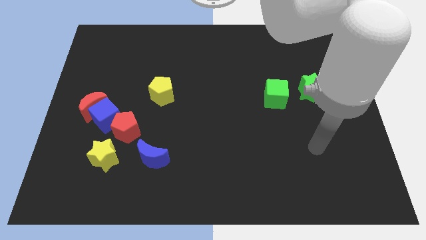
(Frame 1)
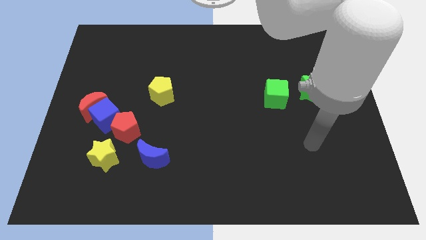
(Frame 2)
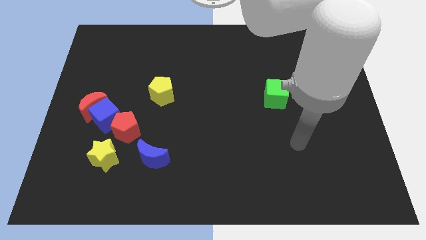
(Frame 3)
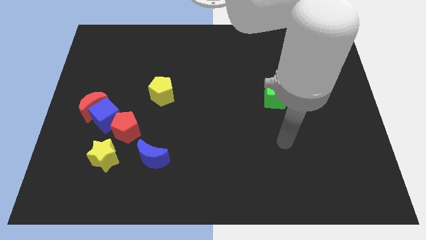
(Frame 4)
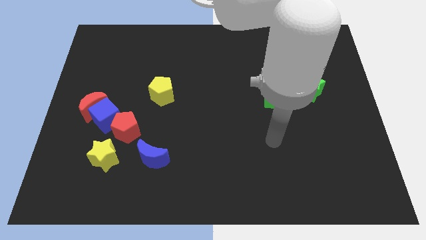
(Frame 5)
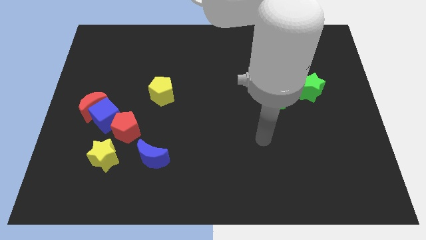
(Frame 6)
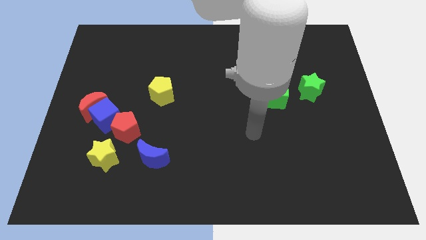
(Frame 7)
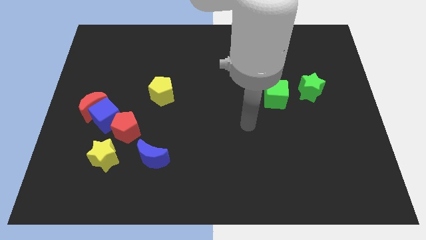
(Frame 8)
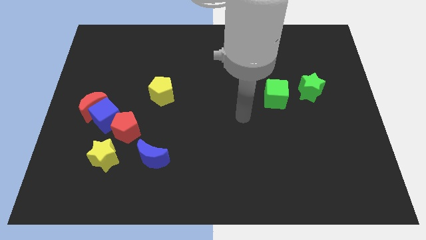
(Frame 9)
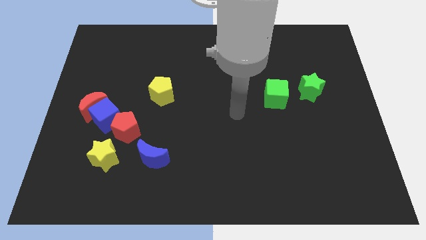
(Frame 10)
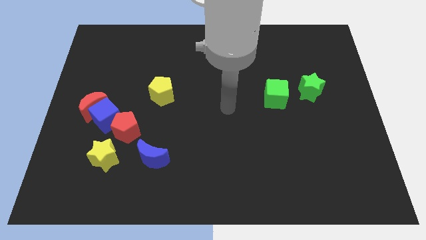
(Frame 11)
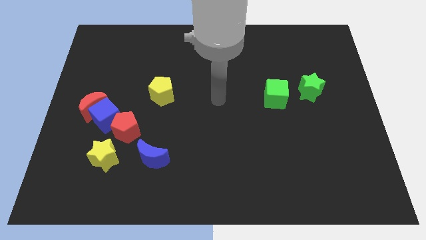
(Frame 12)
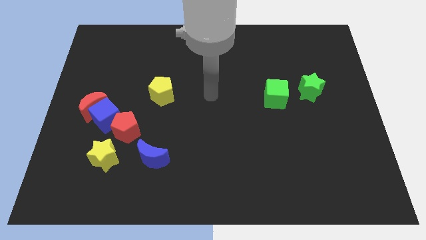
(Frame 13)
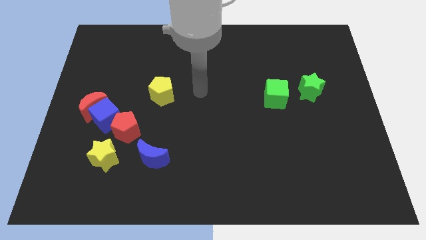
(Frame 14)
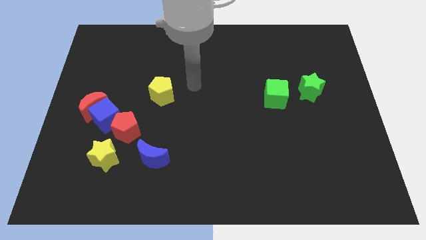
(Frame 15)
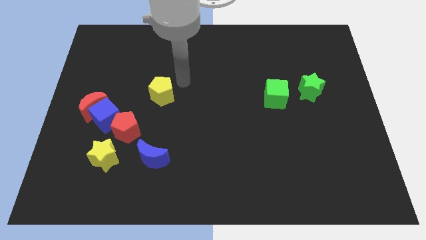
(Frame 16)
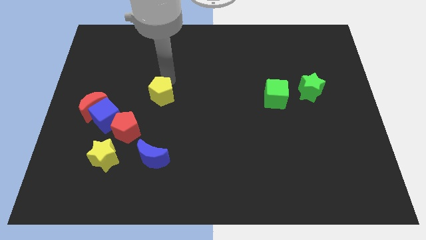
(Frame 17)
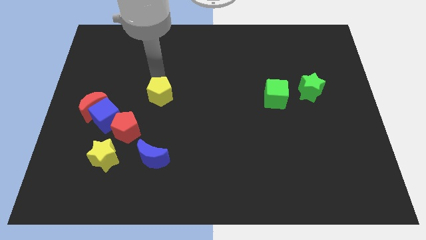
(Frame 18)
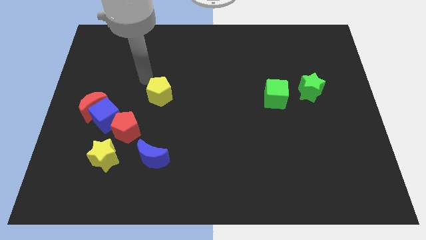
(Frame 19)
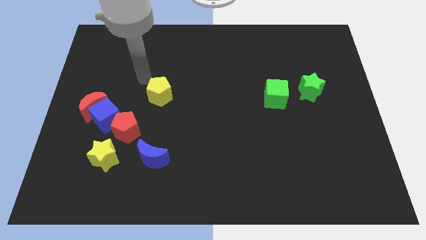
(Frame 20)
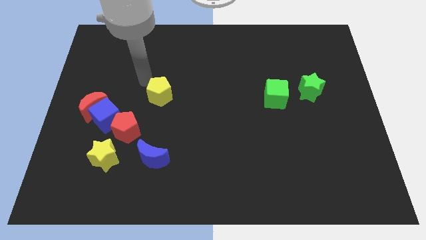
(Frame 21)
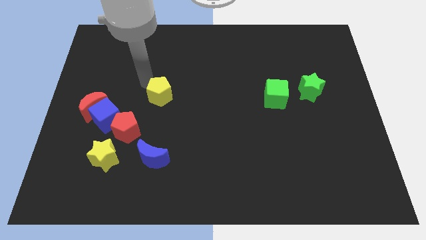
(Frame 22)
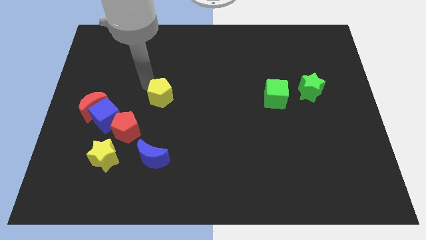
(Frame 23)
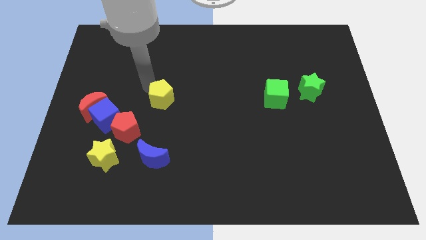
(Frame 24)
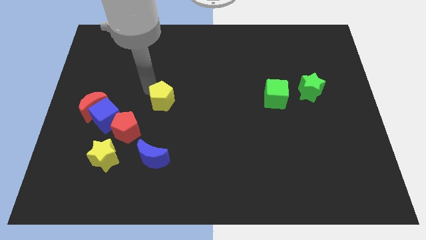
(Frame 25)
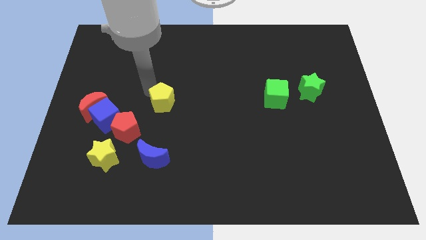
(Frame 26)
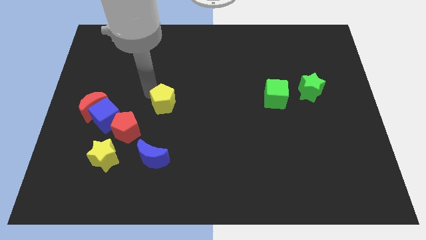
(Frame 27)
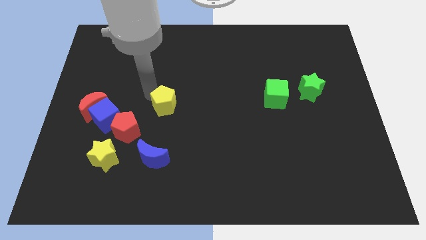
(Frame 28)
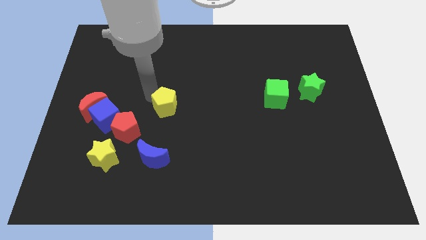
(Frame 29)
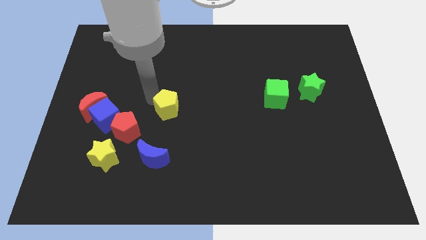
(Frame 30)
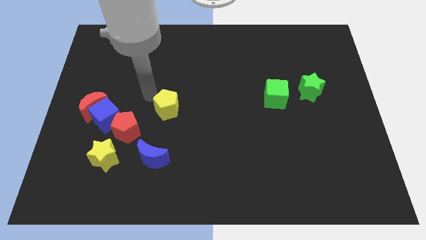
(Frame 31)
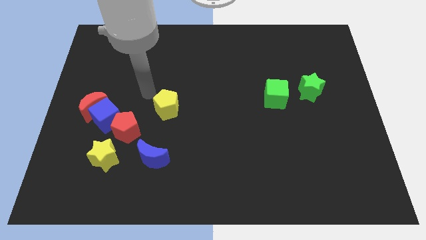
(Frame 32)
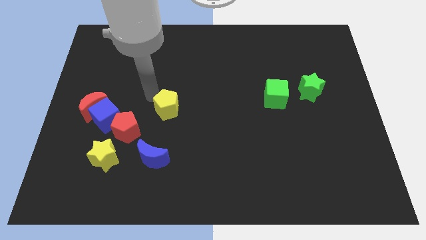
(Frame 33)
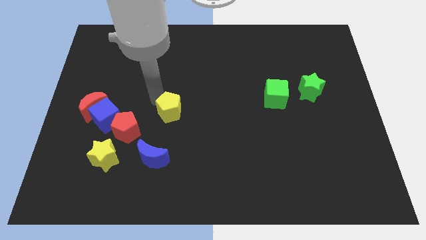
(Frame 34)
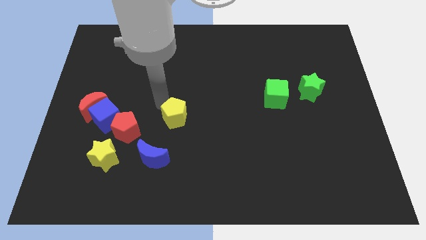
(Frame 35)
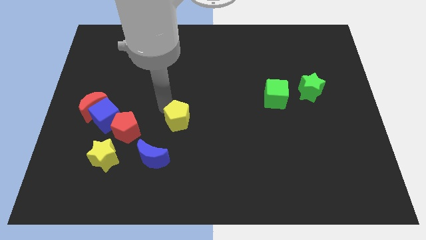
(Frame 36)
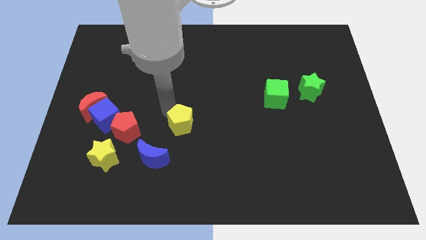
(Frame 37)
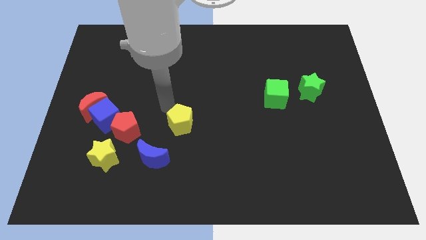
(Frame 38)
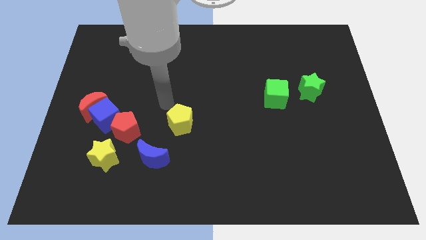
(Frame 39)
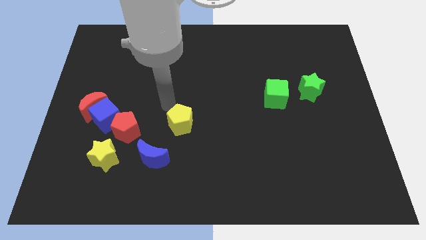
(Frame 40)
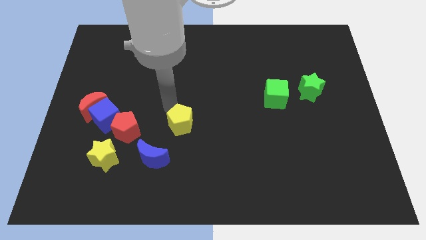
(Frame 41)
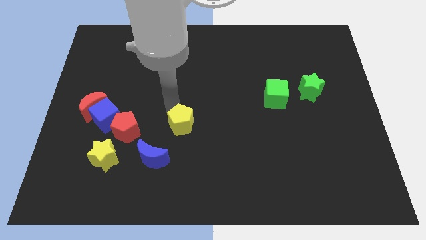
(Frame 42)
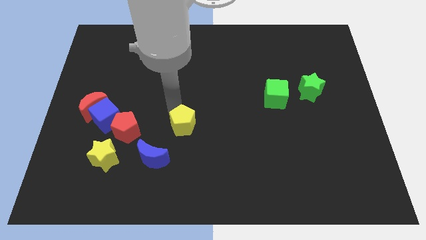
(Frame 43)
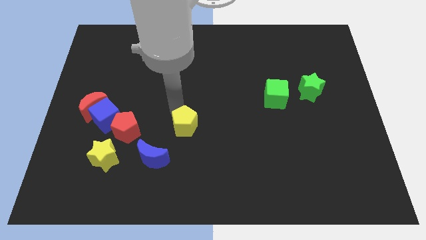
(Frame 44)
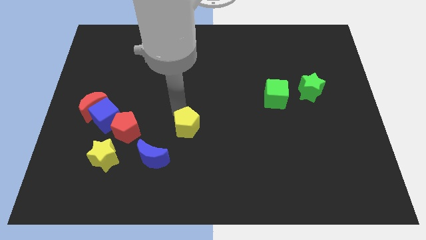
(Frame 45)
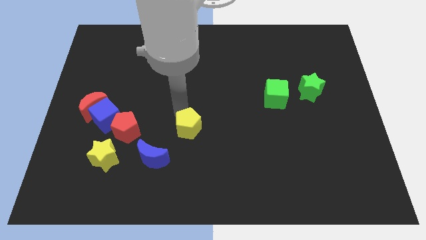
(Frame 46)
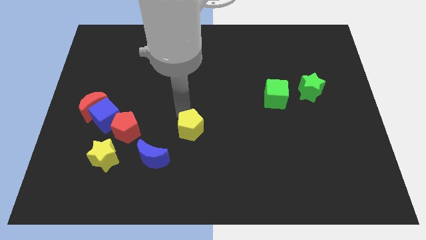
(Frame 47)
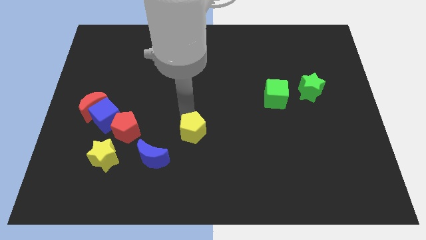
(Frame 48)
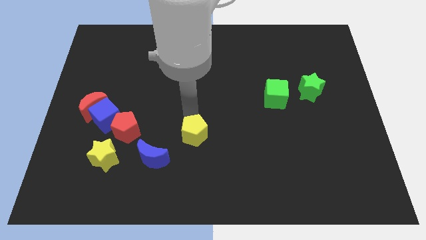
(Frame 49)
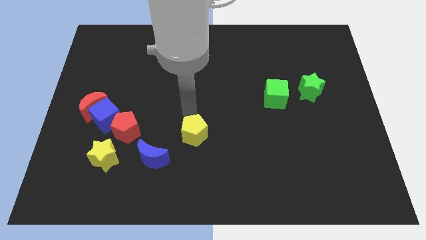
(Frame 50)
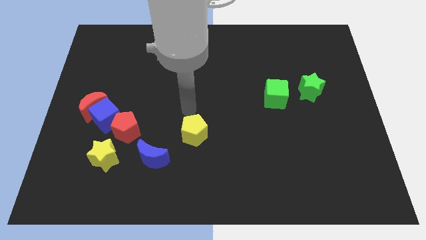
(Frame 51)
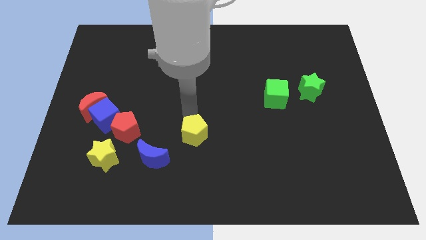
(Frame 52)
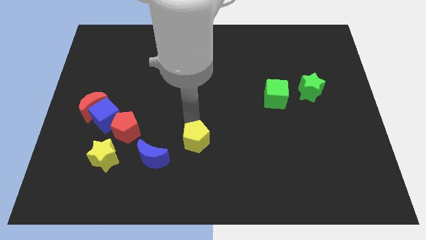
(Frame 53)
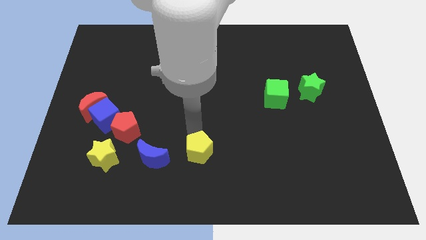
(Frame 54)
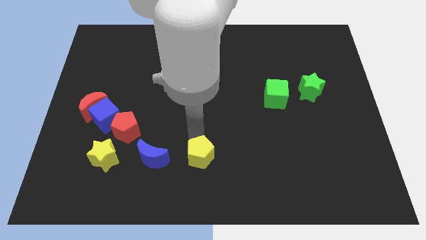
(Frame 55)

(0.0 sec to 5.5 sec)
move the yellow pentagon to the bottom side

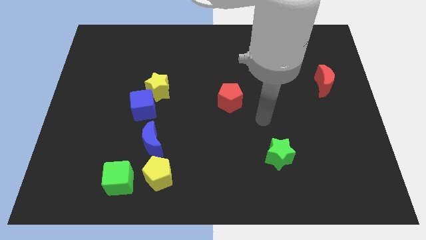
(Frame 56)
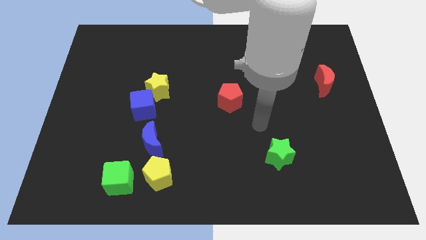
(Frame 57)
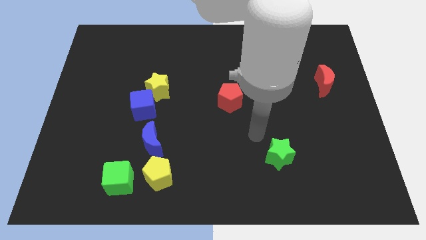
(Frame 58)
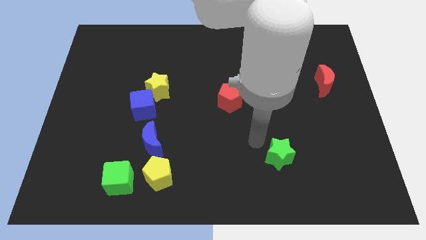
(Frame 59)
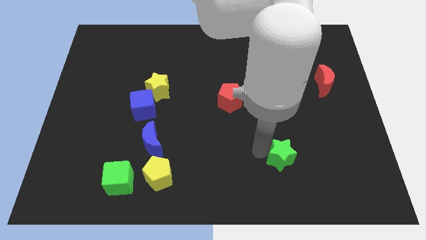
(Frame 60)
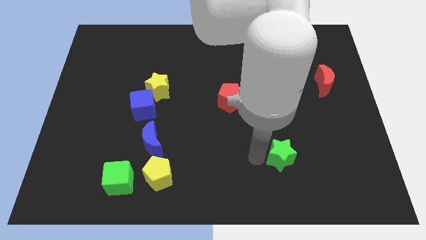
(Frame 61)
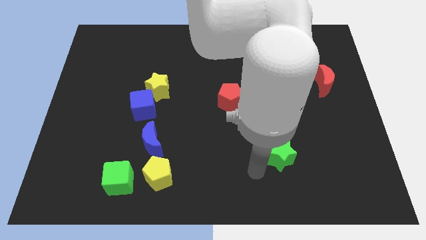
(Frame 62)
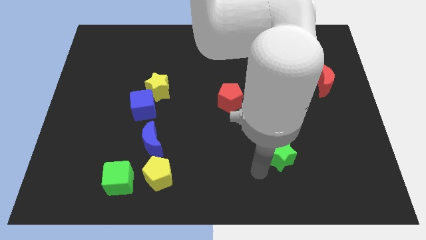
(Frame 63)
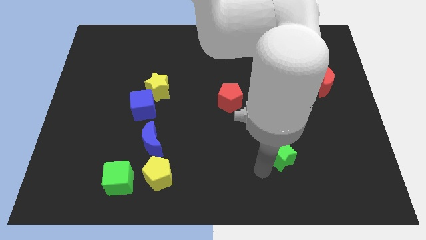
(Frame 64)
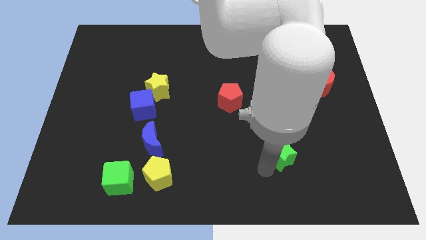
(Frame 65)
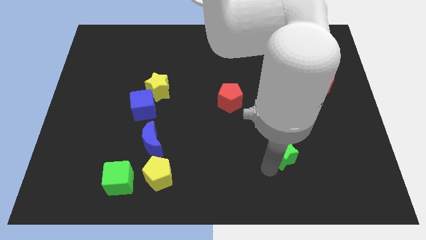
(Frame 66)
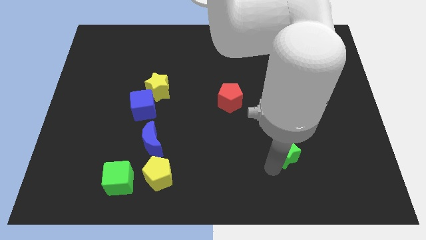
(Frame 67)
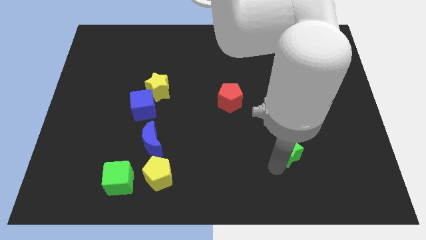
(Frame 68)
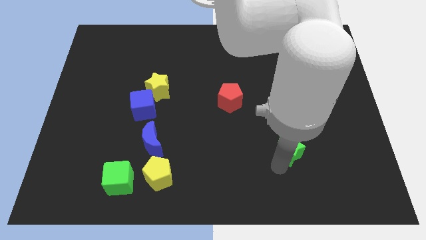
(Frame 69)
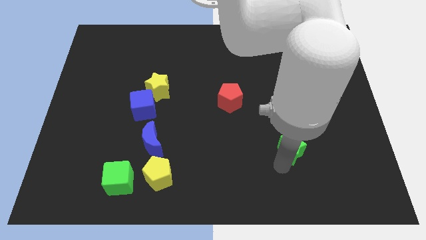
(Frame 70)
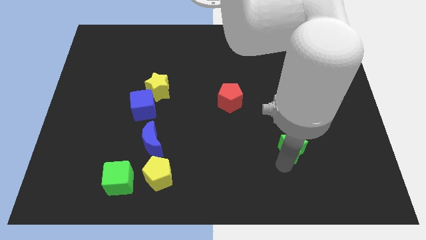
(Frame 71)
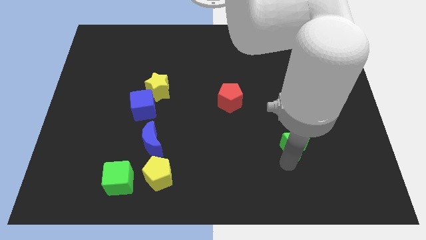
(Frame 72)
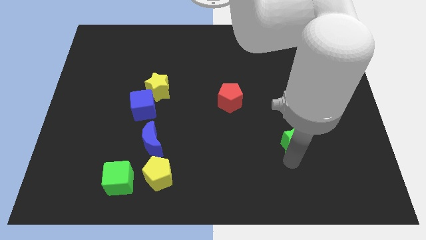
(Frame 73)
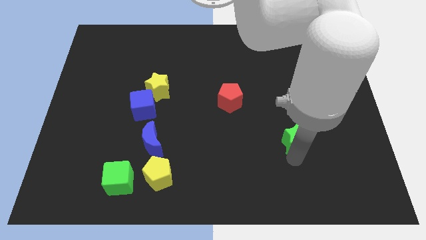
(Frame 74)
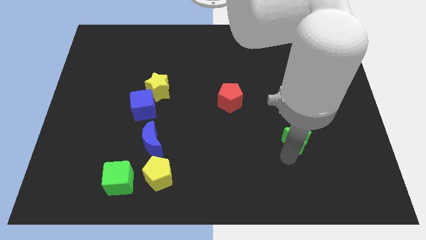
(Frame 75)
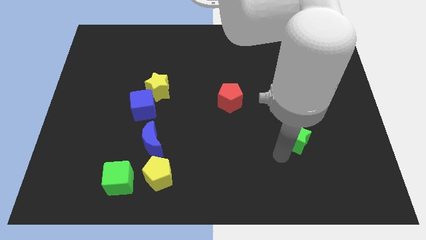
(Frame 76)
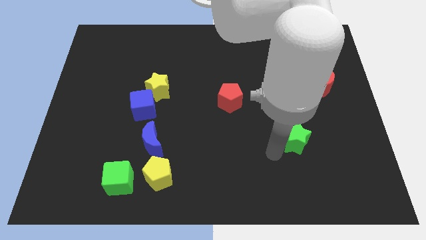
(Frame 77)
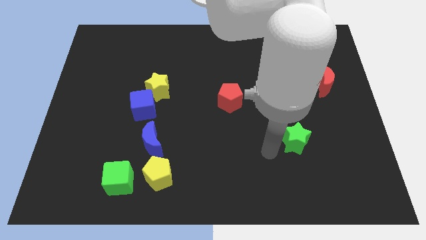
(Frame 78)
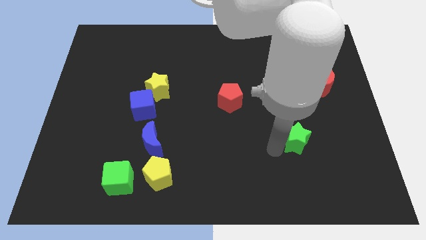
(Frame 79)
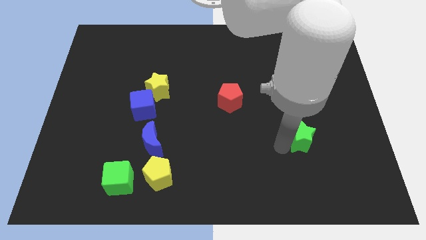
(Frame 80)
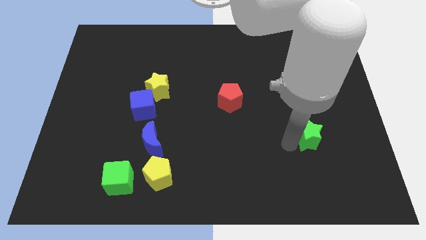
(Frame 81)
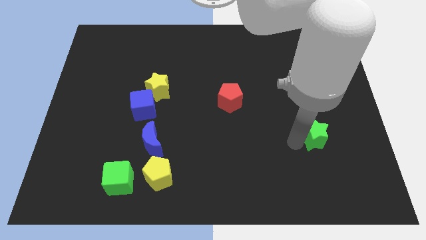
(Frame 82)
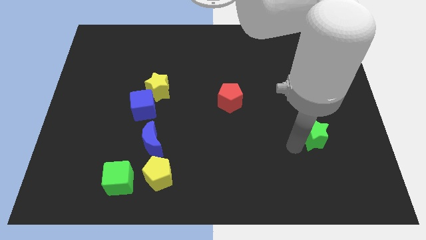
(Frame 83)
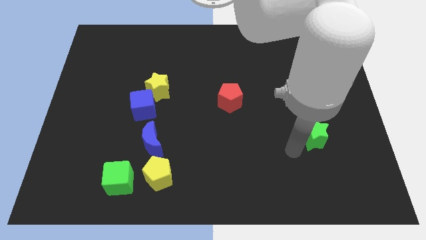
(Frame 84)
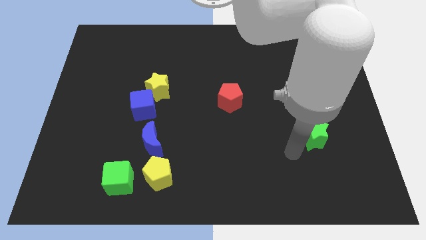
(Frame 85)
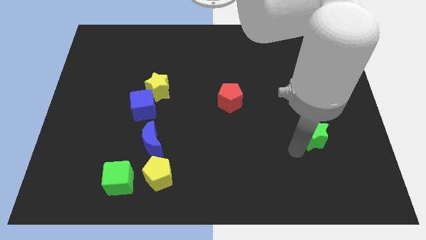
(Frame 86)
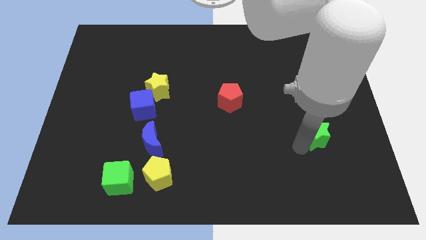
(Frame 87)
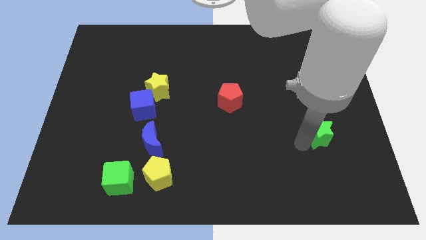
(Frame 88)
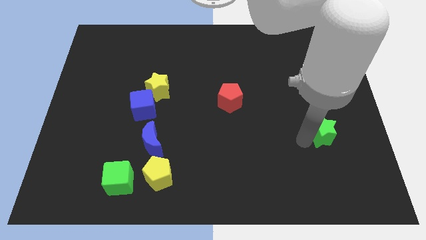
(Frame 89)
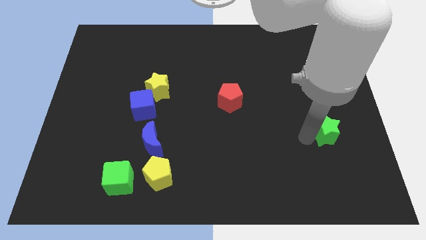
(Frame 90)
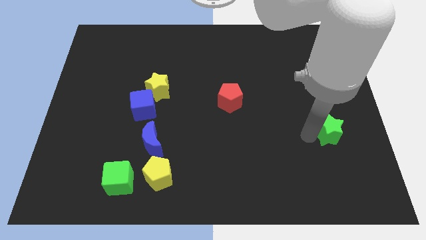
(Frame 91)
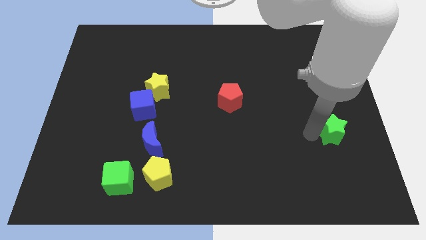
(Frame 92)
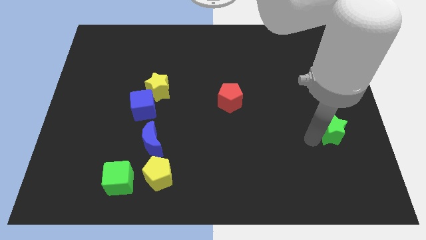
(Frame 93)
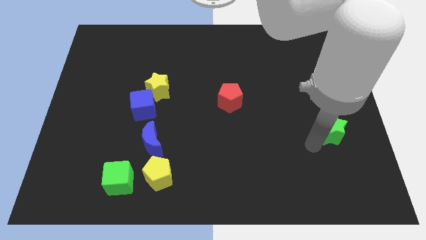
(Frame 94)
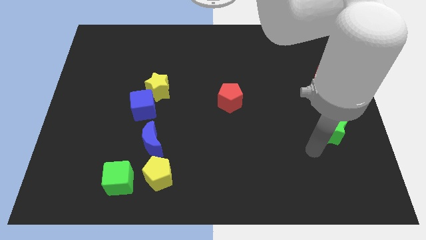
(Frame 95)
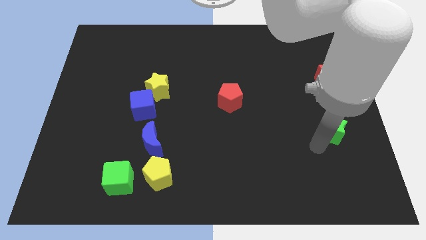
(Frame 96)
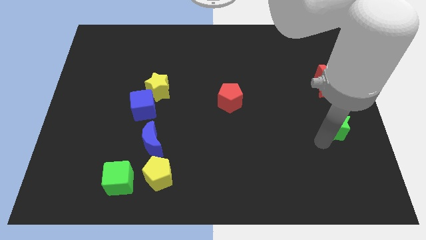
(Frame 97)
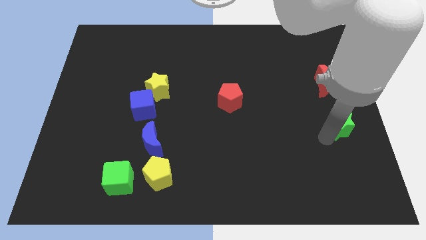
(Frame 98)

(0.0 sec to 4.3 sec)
slide the green star to the right side
